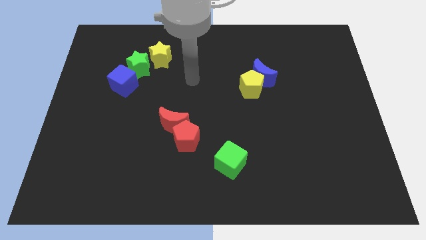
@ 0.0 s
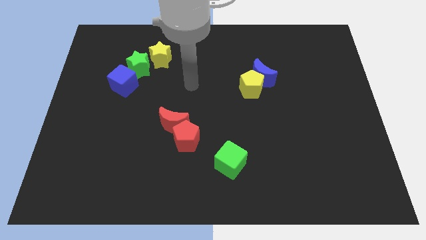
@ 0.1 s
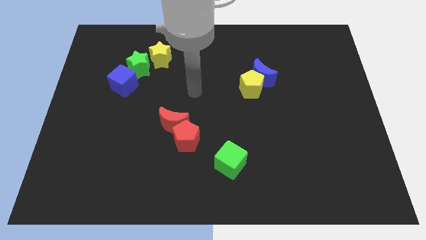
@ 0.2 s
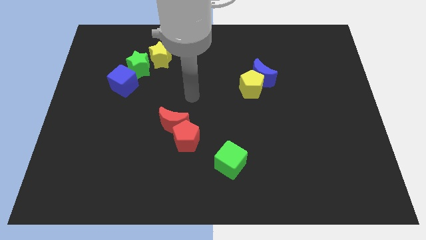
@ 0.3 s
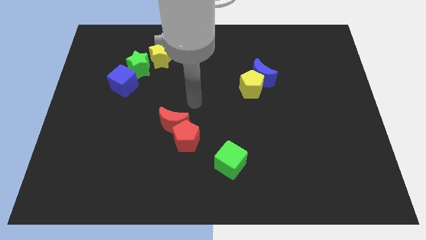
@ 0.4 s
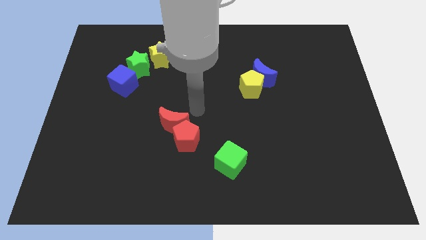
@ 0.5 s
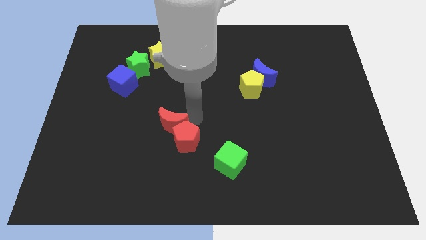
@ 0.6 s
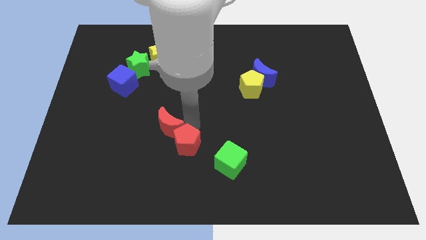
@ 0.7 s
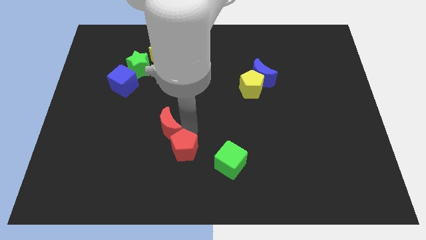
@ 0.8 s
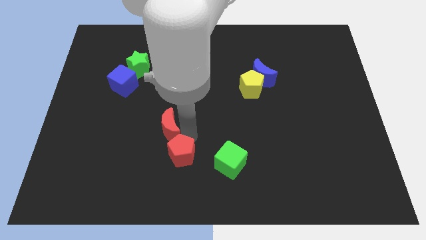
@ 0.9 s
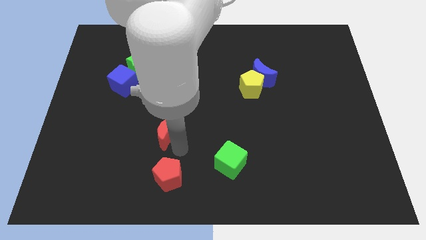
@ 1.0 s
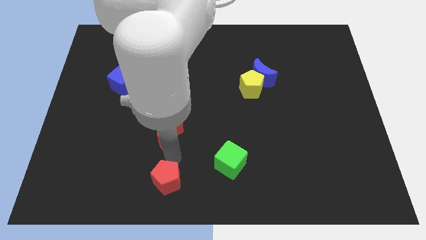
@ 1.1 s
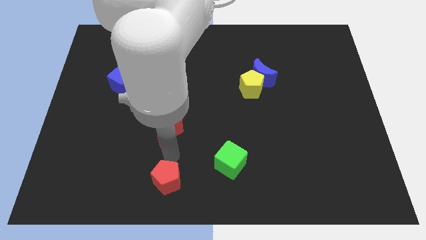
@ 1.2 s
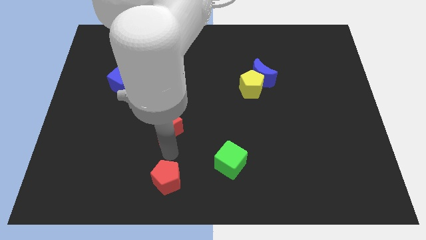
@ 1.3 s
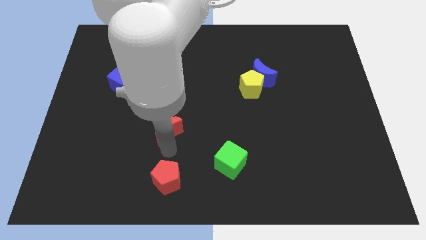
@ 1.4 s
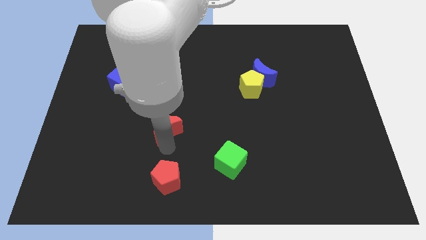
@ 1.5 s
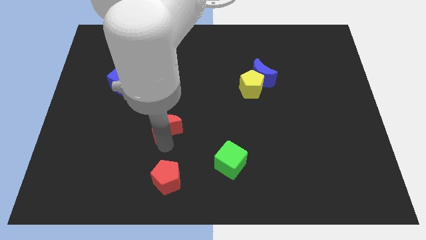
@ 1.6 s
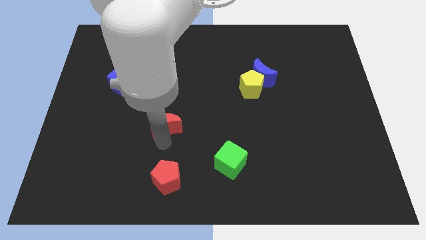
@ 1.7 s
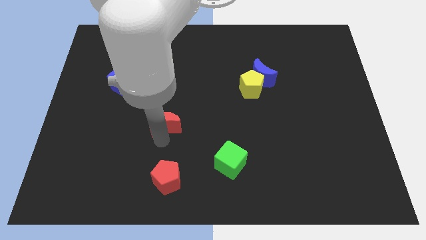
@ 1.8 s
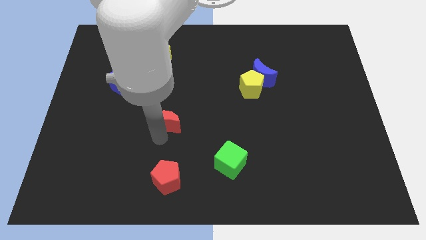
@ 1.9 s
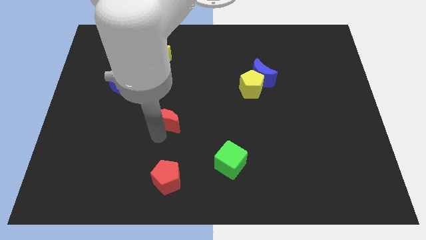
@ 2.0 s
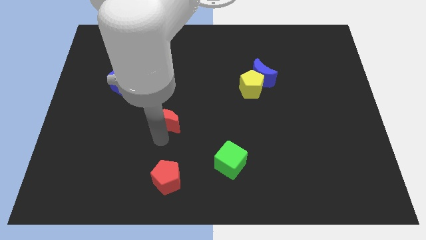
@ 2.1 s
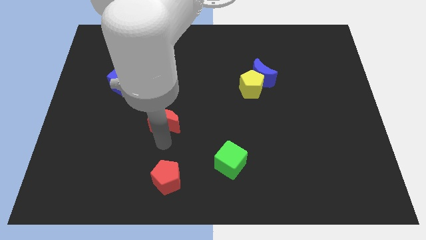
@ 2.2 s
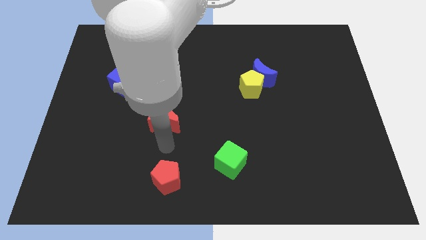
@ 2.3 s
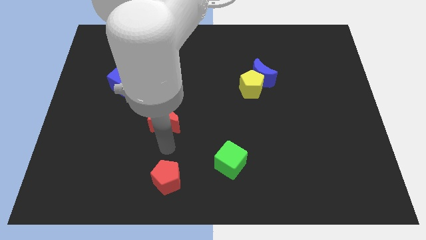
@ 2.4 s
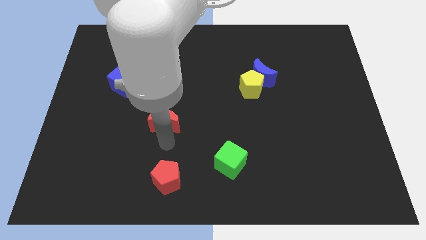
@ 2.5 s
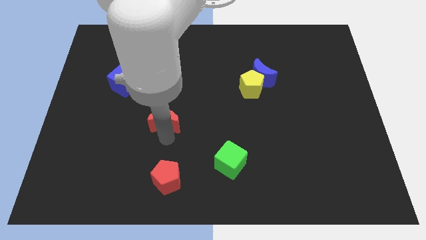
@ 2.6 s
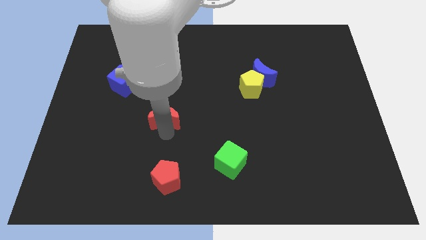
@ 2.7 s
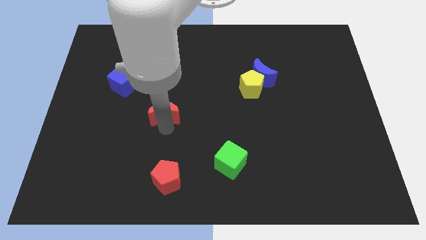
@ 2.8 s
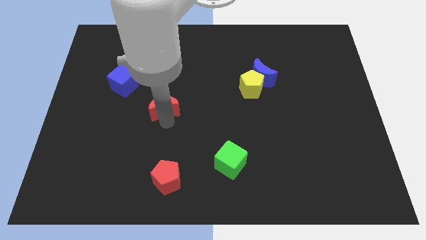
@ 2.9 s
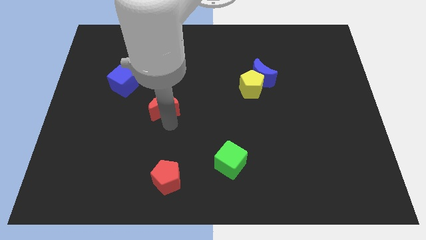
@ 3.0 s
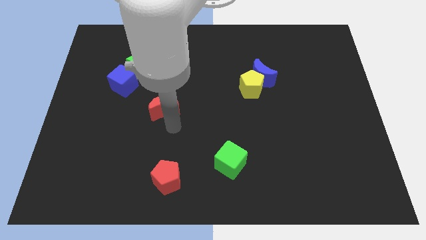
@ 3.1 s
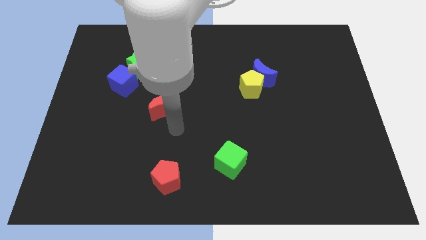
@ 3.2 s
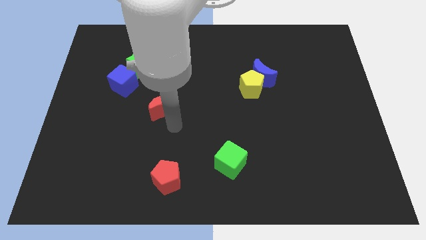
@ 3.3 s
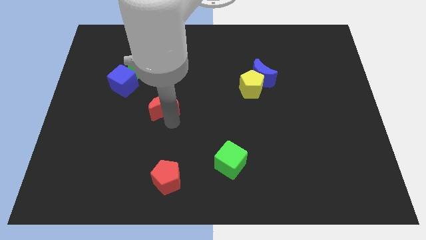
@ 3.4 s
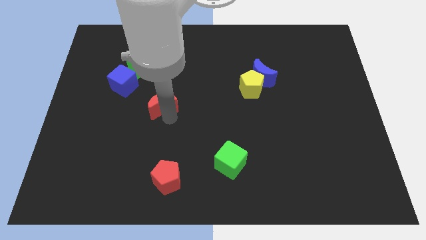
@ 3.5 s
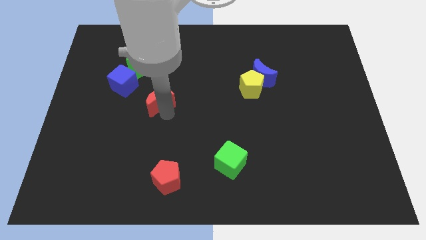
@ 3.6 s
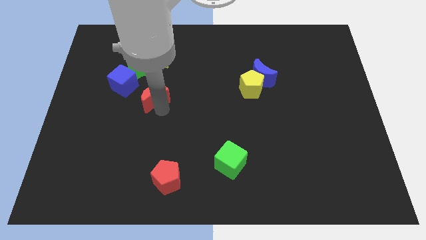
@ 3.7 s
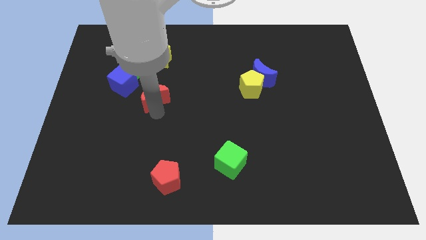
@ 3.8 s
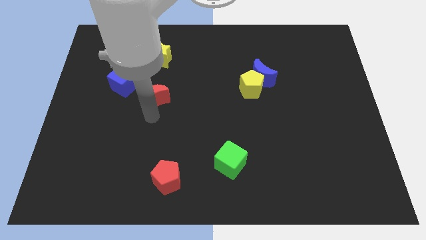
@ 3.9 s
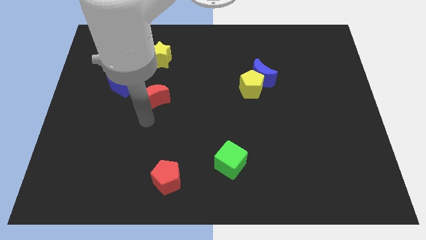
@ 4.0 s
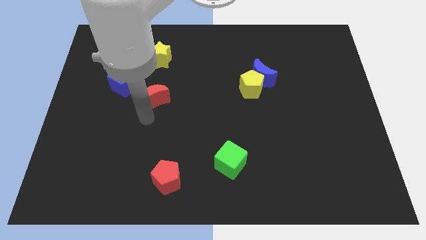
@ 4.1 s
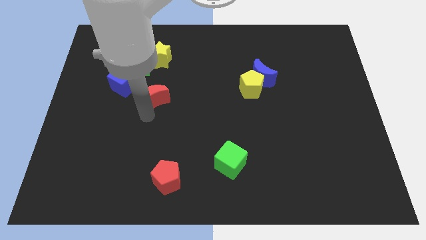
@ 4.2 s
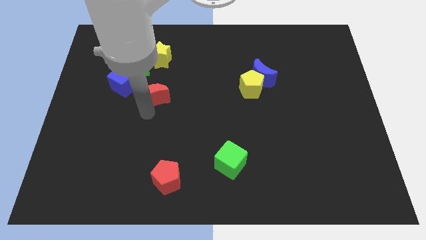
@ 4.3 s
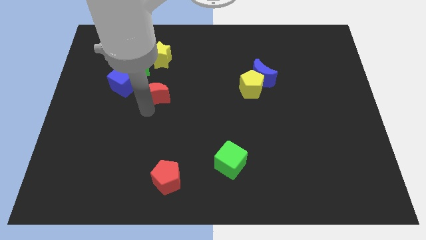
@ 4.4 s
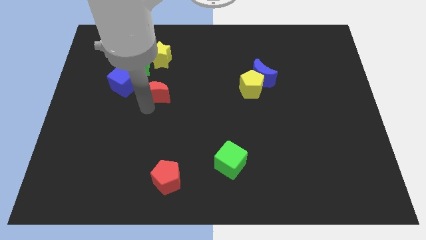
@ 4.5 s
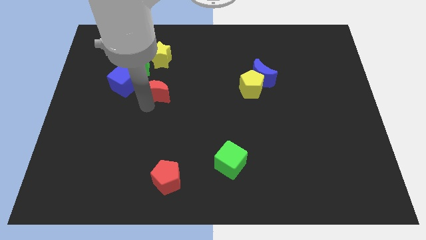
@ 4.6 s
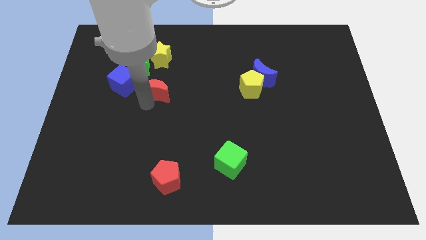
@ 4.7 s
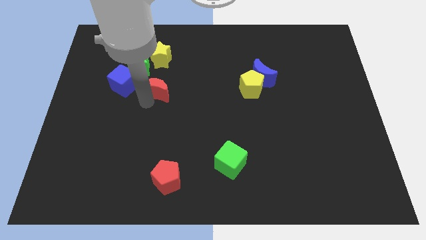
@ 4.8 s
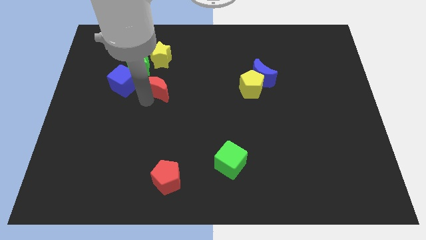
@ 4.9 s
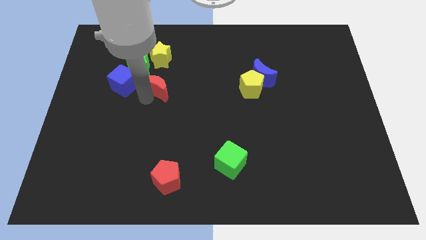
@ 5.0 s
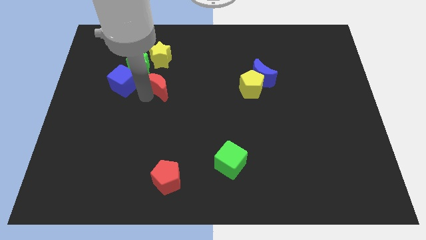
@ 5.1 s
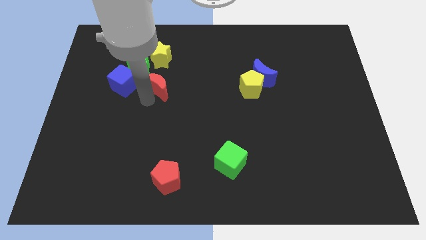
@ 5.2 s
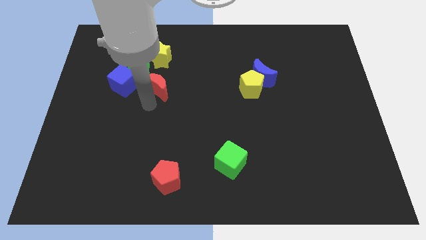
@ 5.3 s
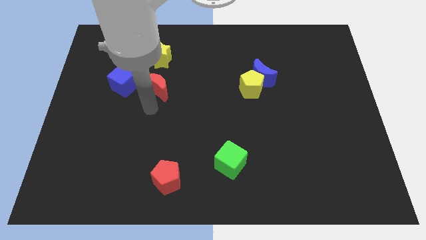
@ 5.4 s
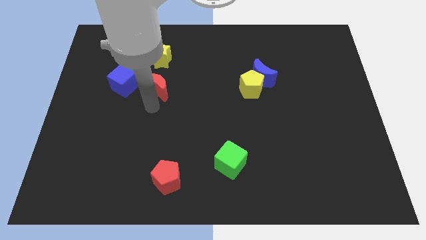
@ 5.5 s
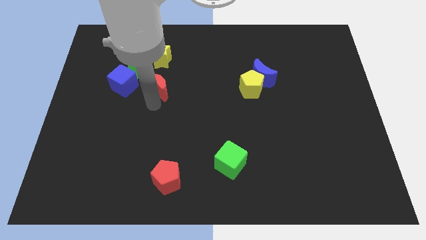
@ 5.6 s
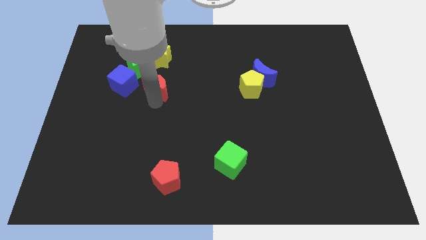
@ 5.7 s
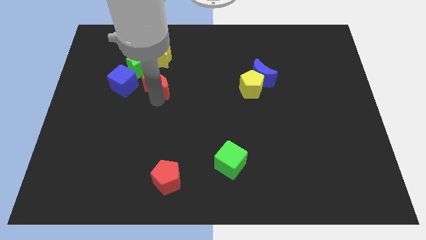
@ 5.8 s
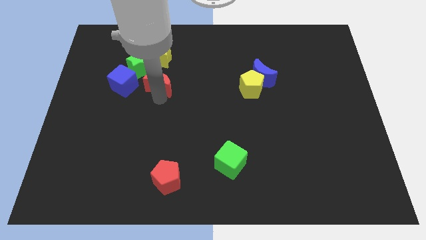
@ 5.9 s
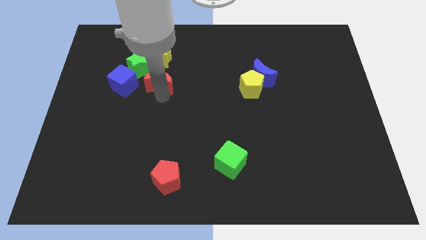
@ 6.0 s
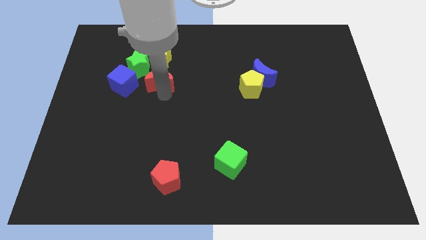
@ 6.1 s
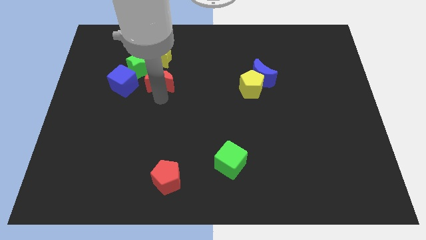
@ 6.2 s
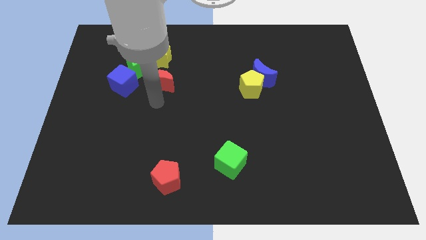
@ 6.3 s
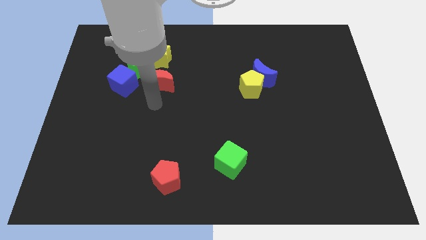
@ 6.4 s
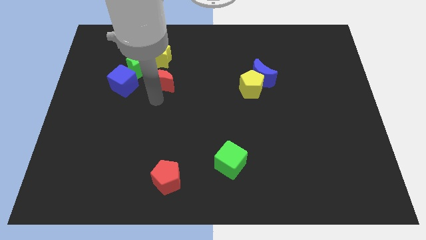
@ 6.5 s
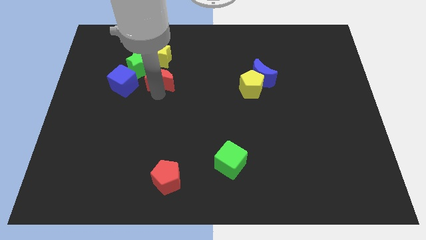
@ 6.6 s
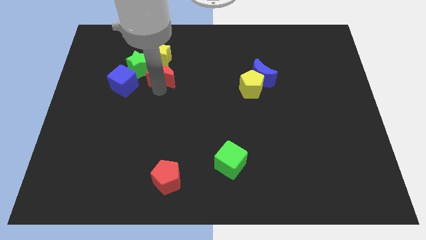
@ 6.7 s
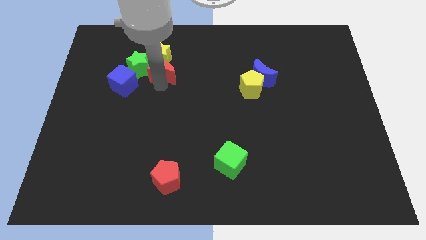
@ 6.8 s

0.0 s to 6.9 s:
move the red moon next to the yellow star
